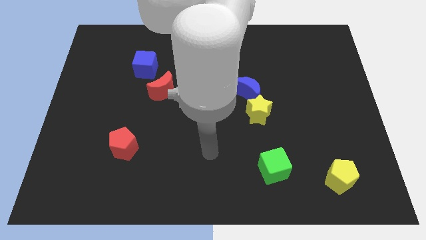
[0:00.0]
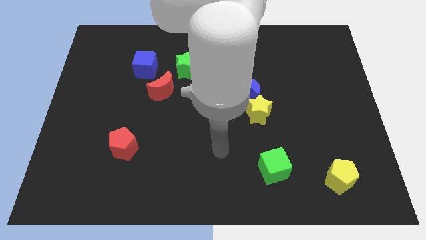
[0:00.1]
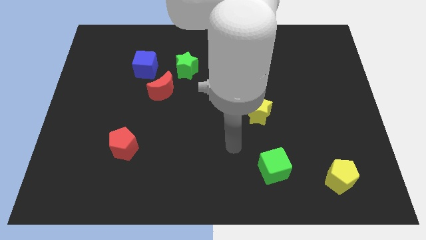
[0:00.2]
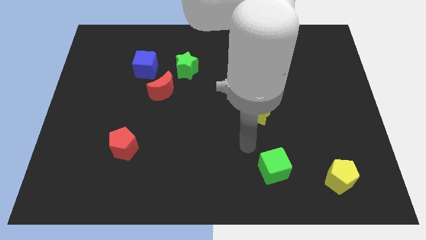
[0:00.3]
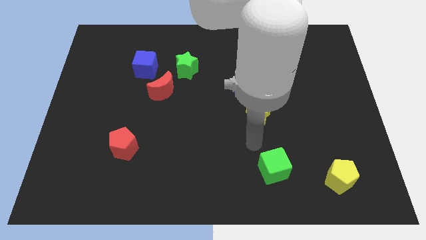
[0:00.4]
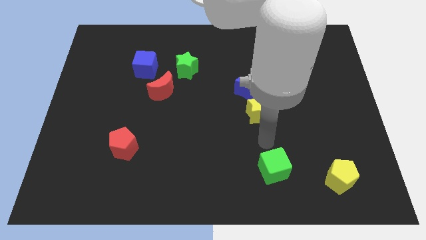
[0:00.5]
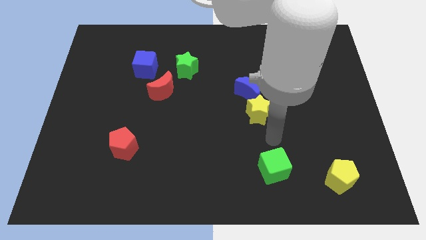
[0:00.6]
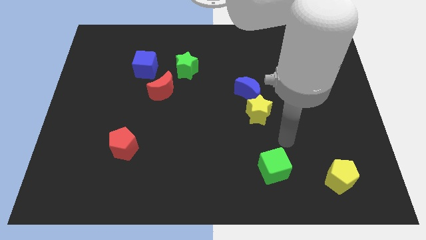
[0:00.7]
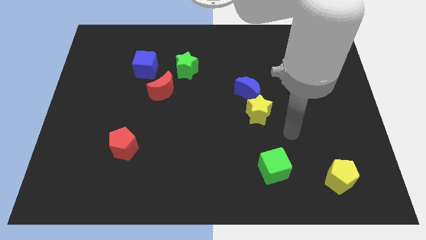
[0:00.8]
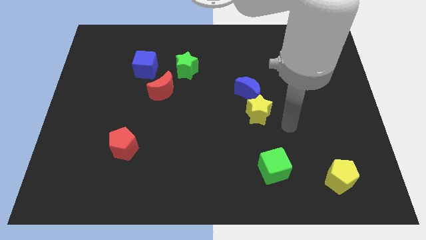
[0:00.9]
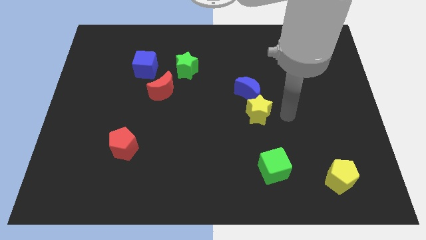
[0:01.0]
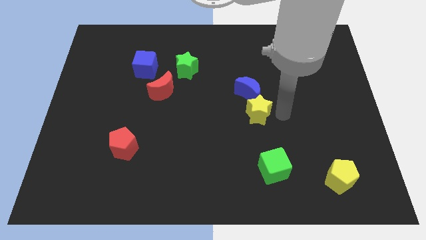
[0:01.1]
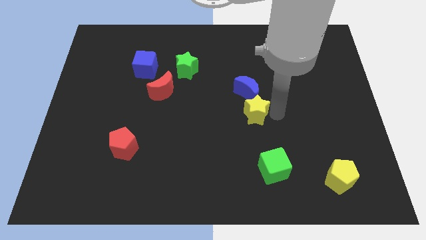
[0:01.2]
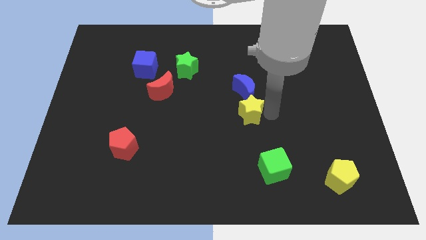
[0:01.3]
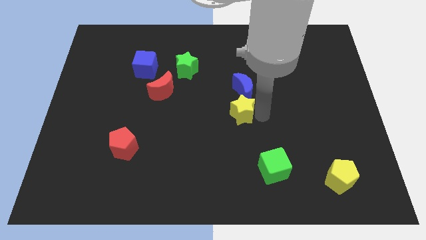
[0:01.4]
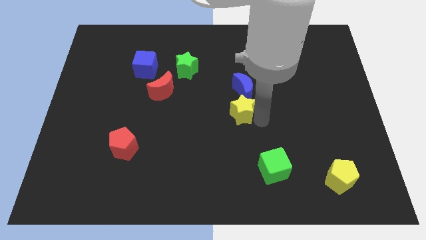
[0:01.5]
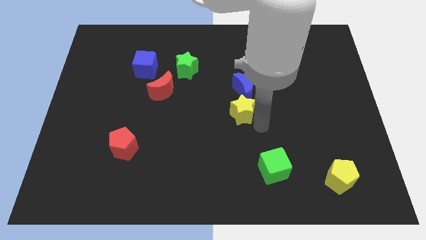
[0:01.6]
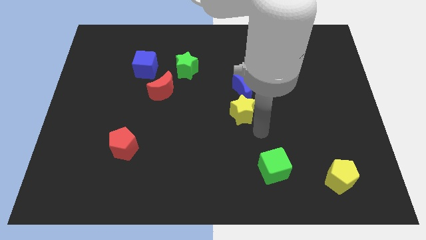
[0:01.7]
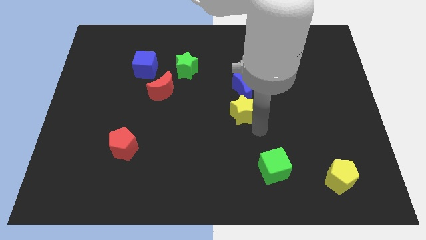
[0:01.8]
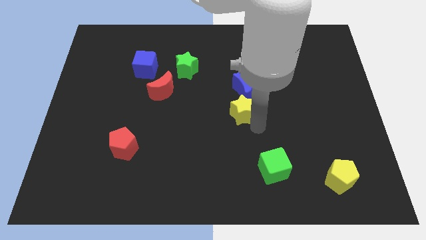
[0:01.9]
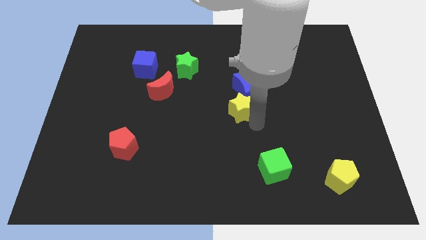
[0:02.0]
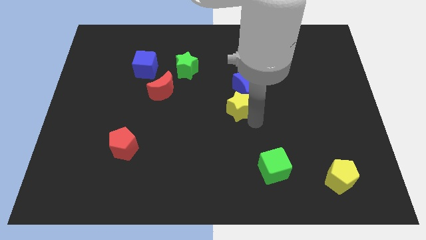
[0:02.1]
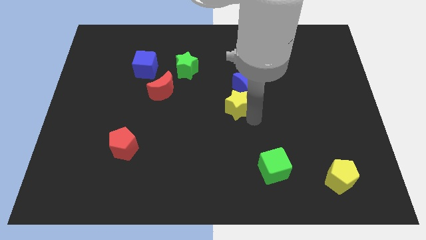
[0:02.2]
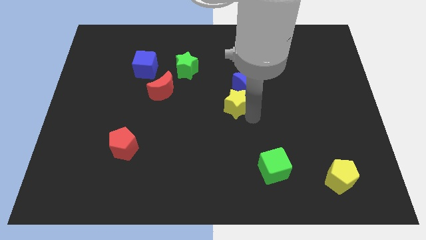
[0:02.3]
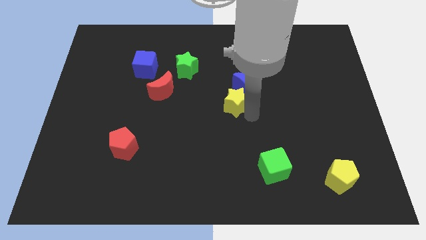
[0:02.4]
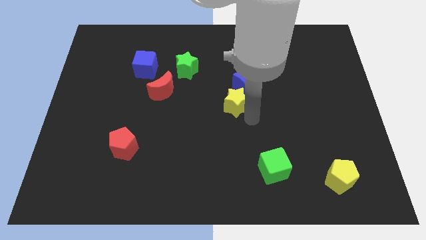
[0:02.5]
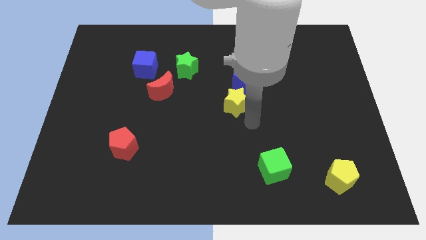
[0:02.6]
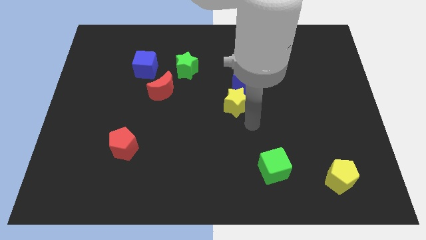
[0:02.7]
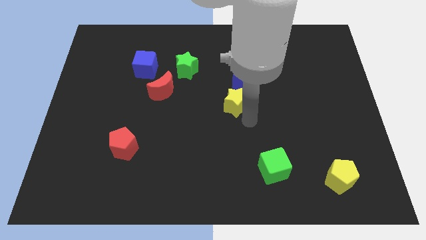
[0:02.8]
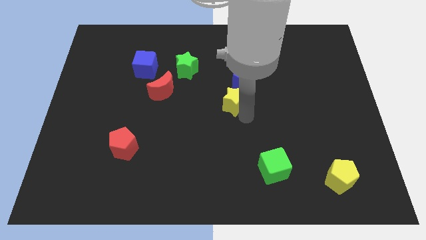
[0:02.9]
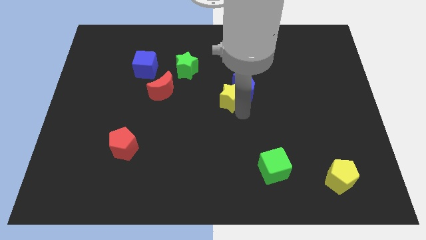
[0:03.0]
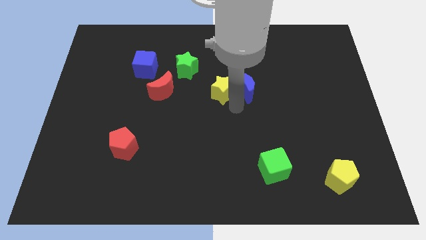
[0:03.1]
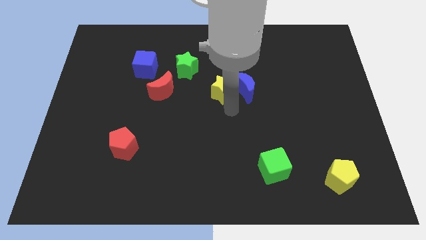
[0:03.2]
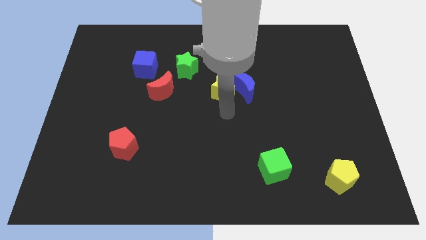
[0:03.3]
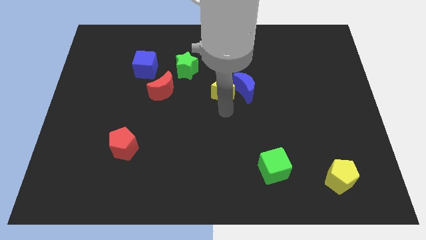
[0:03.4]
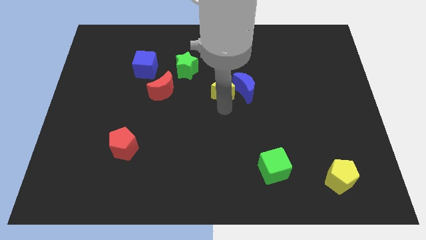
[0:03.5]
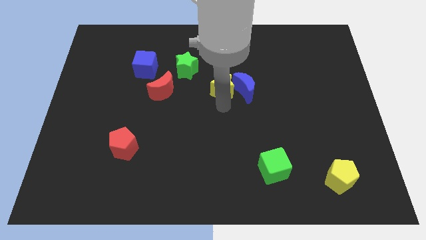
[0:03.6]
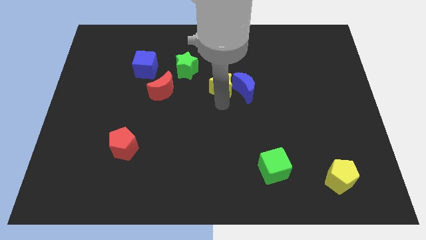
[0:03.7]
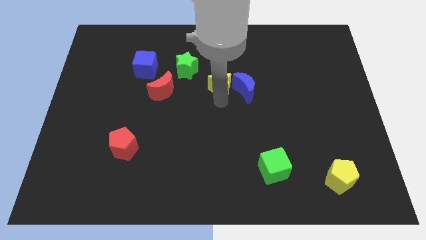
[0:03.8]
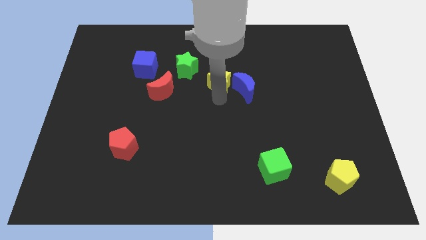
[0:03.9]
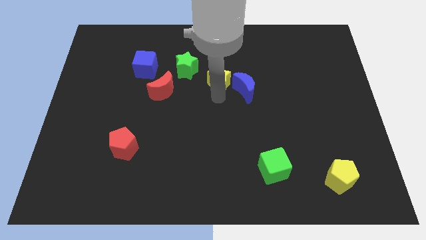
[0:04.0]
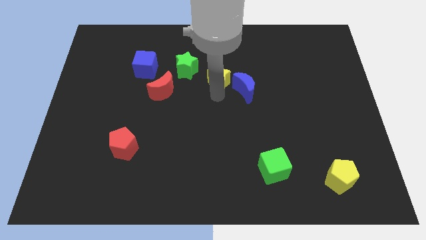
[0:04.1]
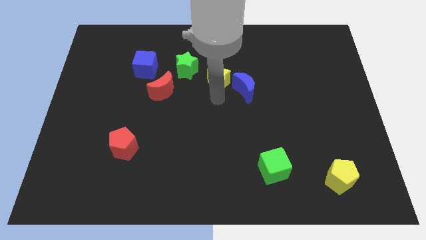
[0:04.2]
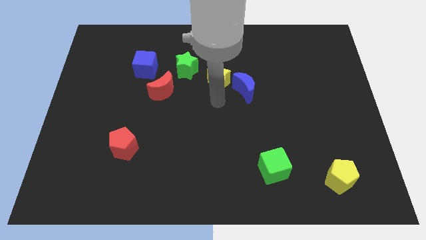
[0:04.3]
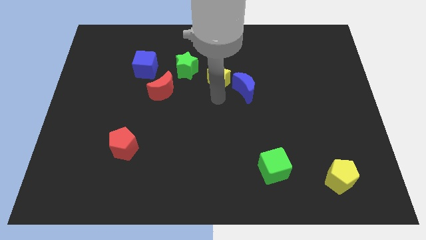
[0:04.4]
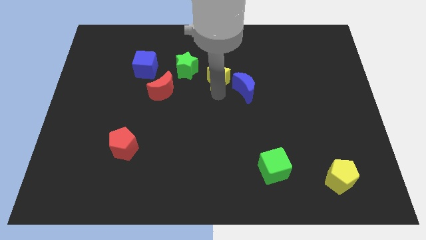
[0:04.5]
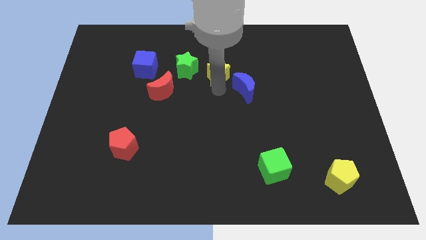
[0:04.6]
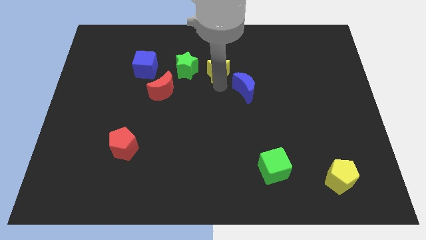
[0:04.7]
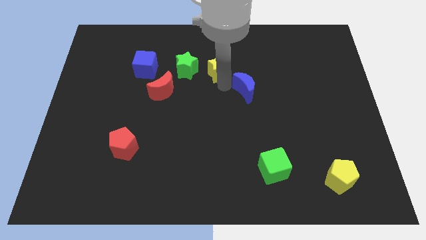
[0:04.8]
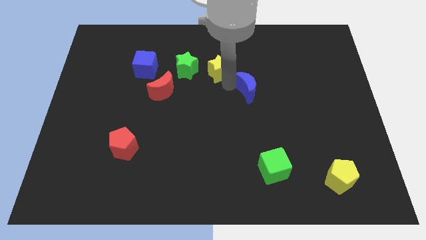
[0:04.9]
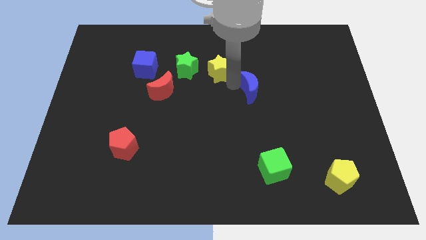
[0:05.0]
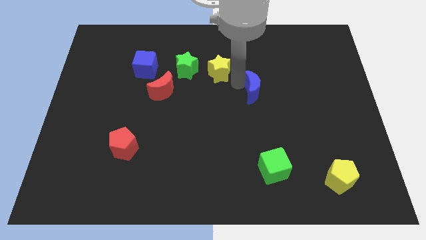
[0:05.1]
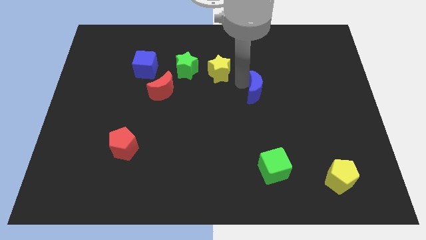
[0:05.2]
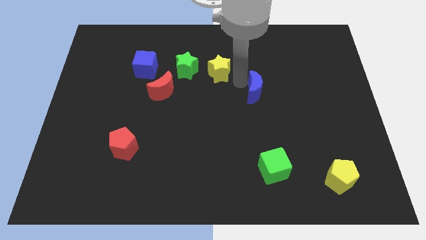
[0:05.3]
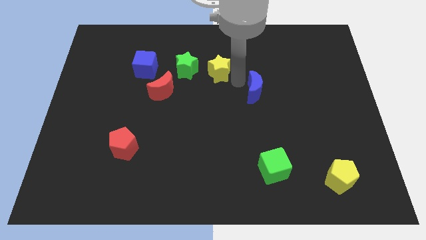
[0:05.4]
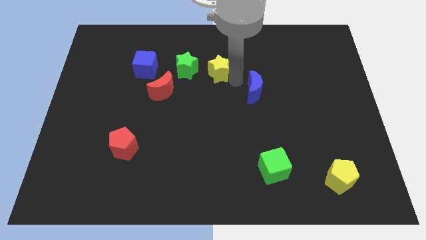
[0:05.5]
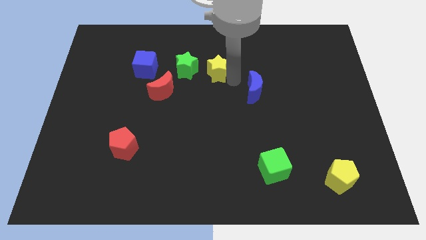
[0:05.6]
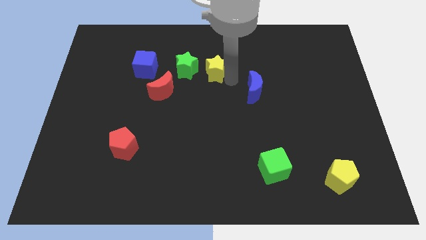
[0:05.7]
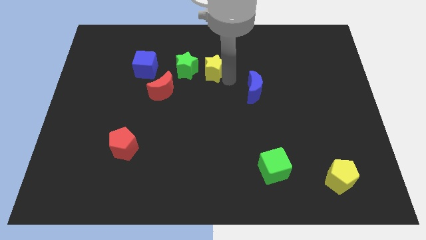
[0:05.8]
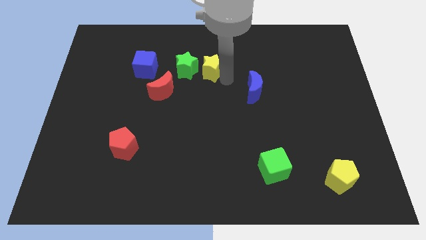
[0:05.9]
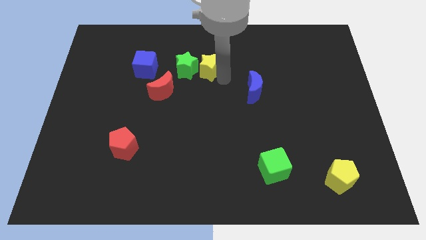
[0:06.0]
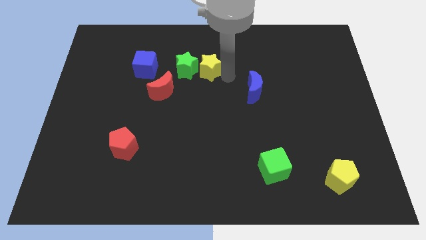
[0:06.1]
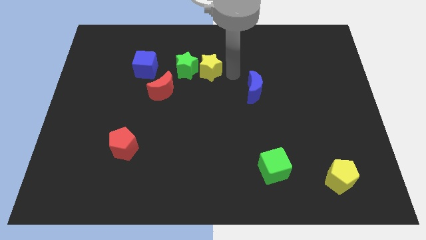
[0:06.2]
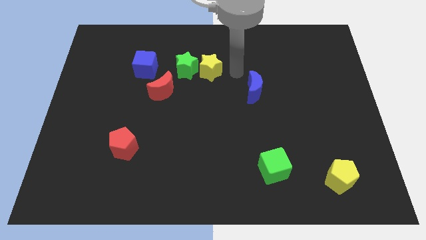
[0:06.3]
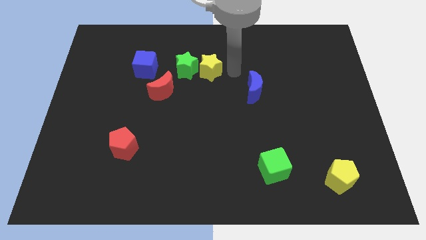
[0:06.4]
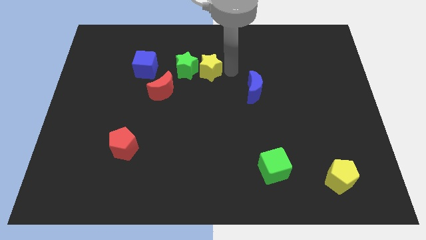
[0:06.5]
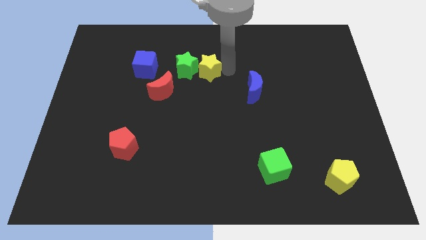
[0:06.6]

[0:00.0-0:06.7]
slide the yellow star to the right side of the blue cube
